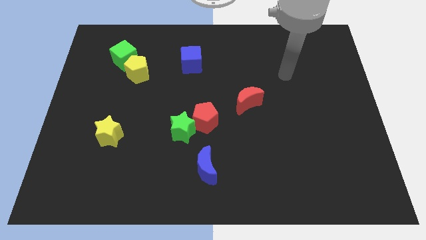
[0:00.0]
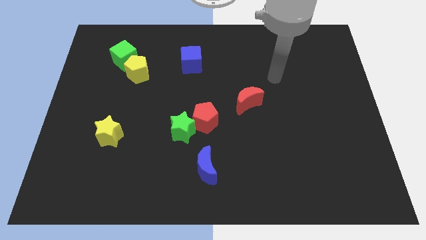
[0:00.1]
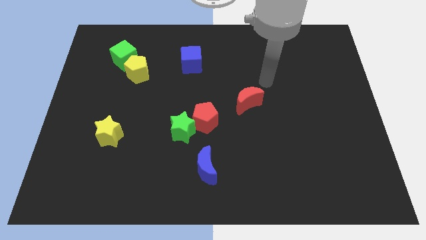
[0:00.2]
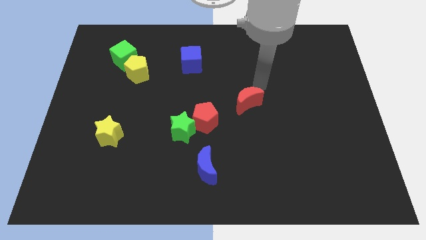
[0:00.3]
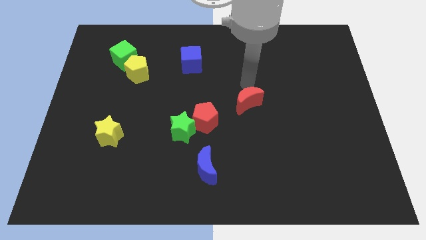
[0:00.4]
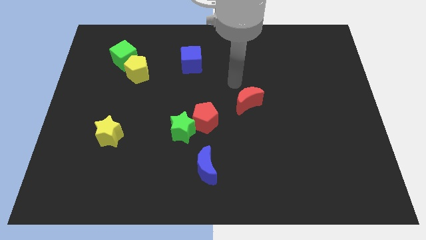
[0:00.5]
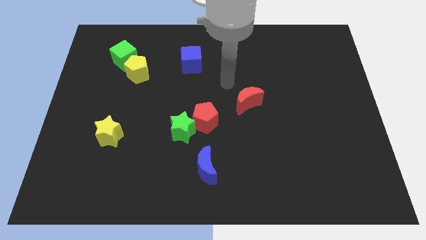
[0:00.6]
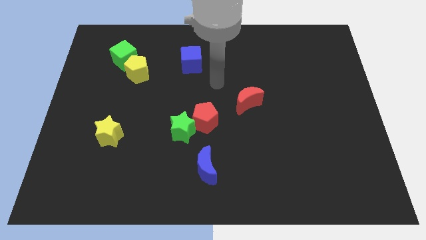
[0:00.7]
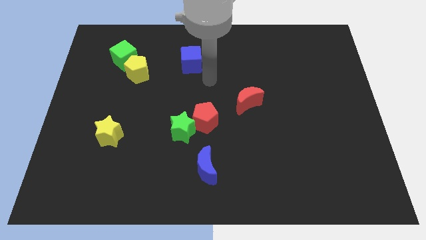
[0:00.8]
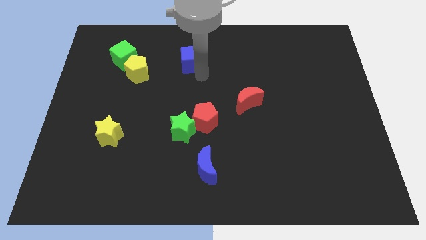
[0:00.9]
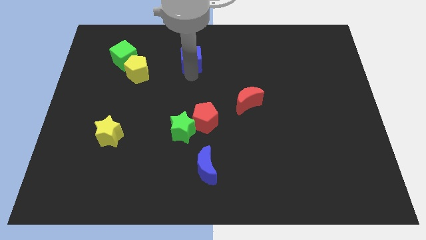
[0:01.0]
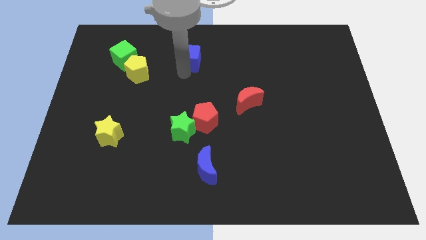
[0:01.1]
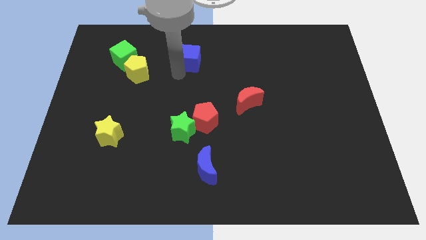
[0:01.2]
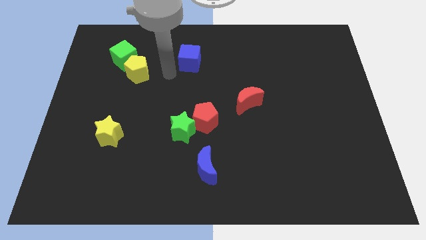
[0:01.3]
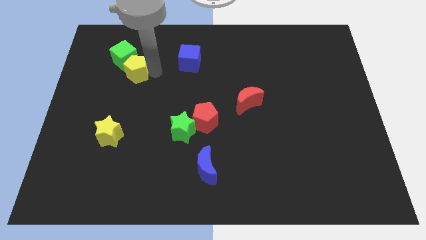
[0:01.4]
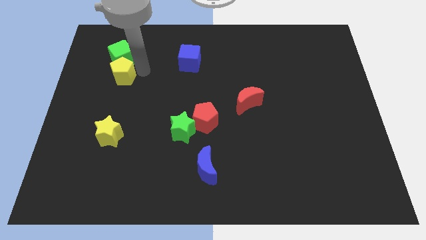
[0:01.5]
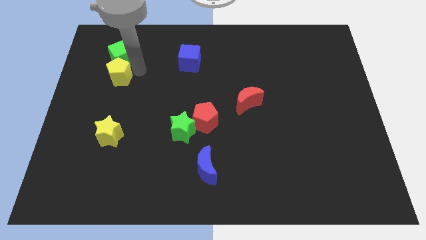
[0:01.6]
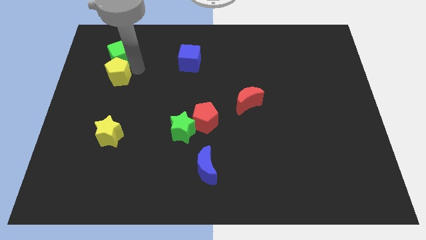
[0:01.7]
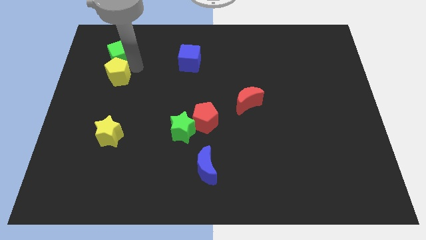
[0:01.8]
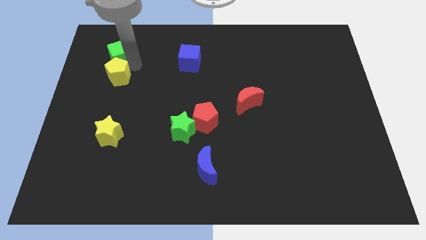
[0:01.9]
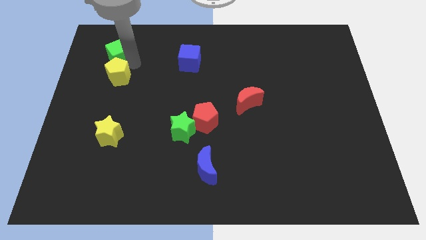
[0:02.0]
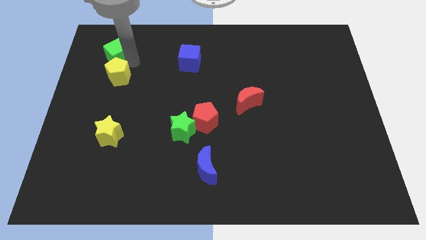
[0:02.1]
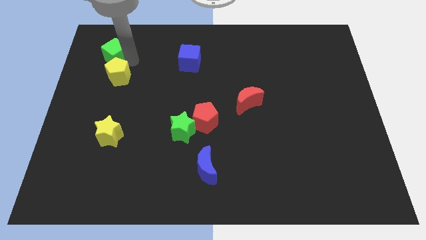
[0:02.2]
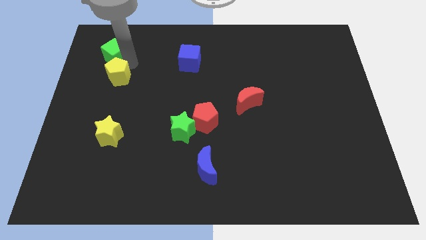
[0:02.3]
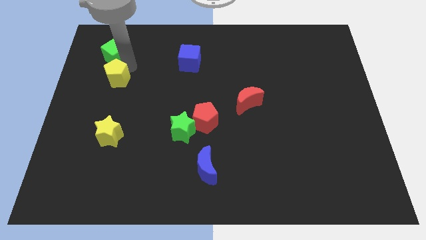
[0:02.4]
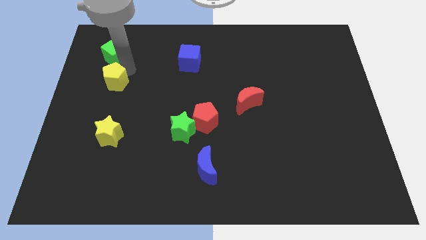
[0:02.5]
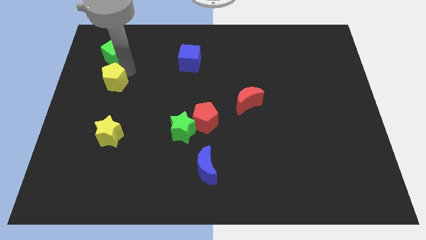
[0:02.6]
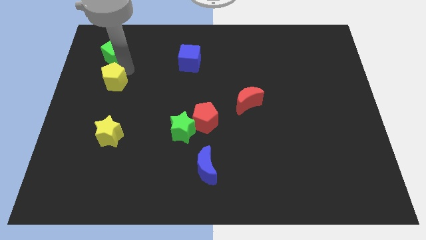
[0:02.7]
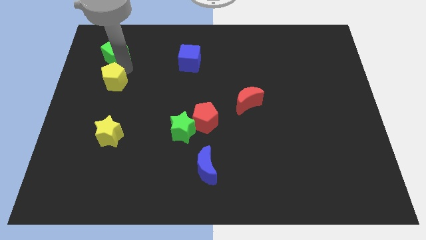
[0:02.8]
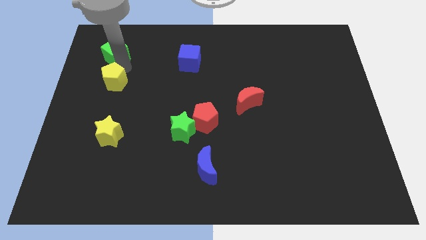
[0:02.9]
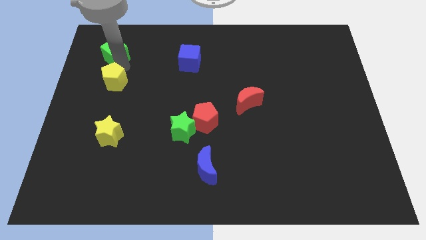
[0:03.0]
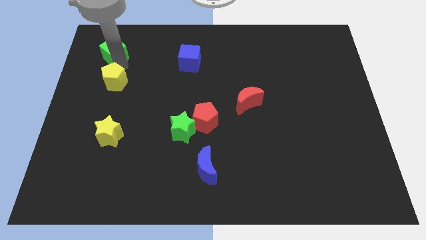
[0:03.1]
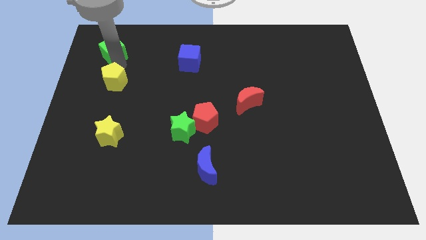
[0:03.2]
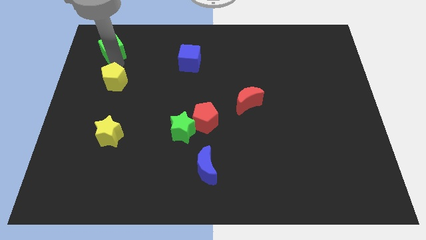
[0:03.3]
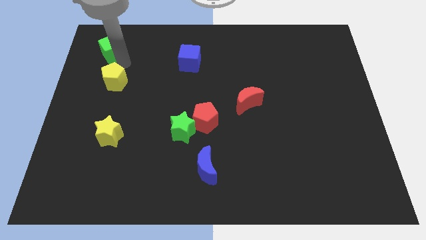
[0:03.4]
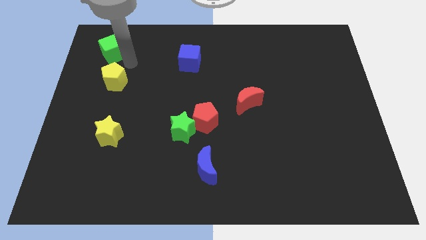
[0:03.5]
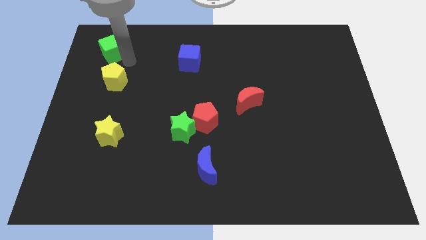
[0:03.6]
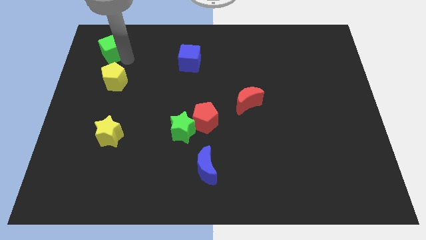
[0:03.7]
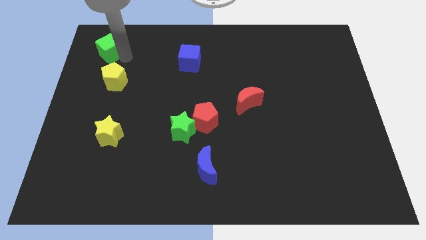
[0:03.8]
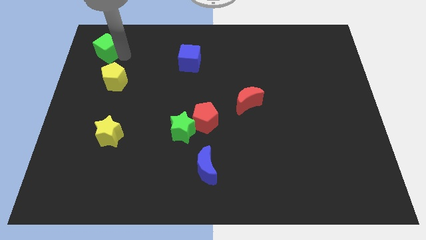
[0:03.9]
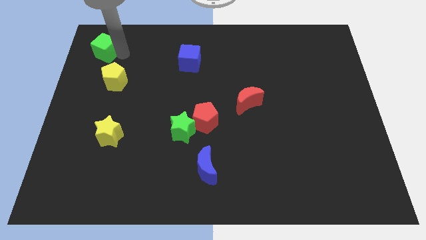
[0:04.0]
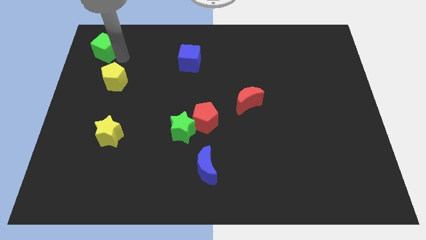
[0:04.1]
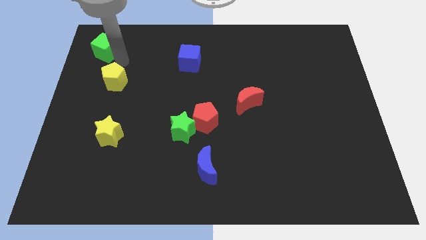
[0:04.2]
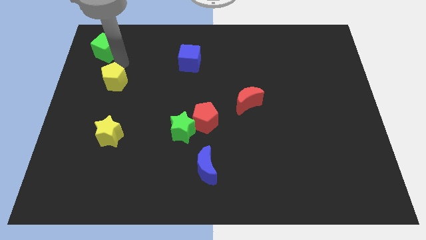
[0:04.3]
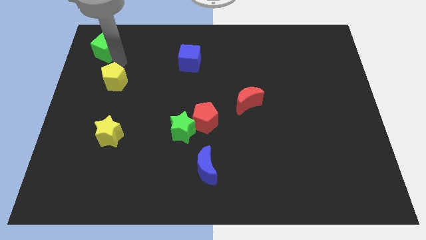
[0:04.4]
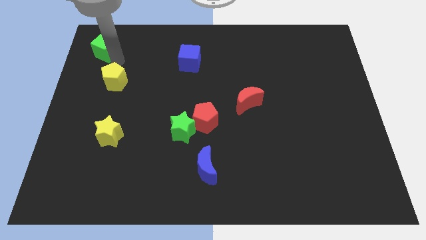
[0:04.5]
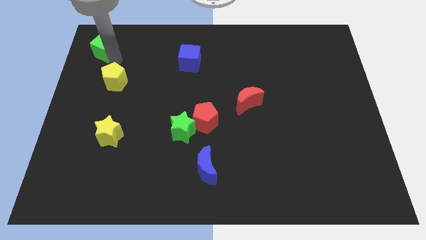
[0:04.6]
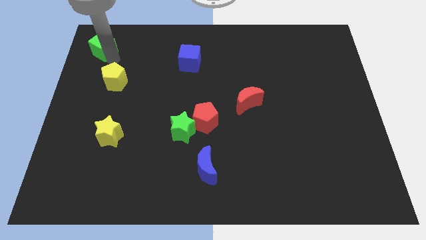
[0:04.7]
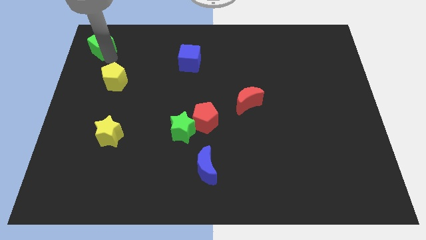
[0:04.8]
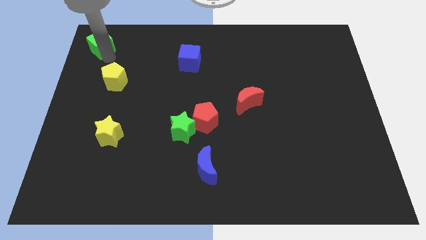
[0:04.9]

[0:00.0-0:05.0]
move the green cube to the upper left corner

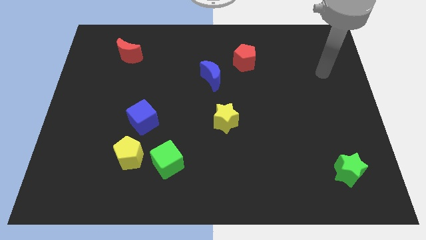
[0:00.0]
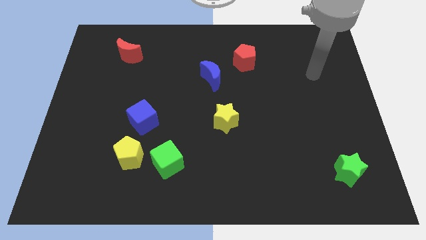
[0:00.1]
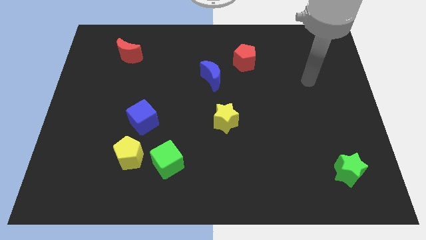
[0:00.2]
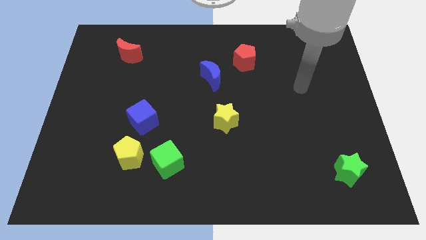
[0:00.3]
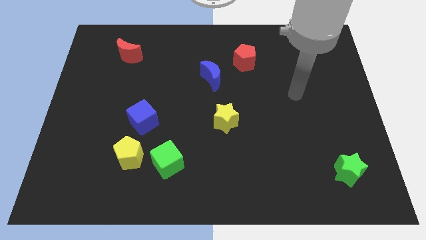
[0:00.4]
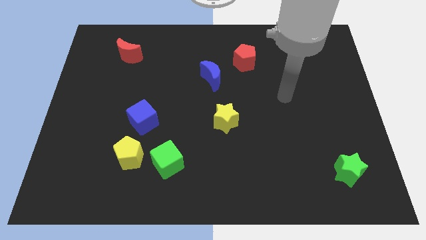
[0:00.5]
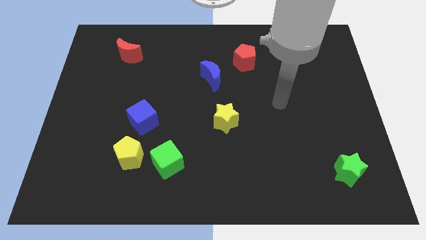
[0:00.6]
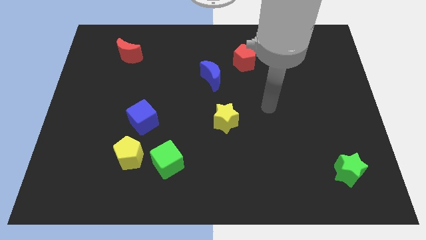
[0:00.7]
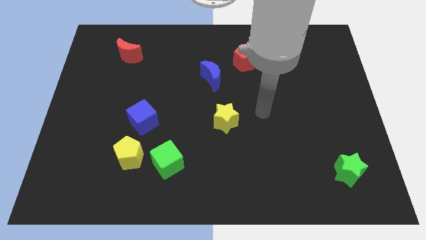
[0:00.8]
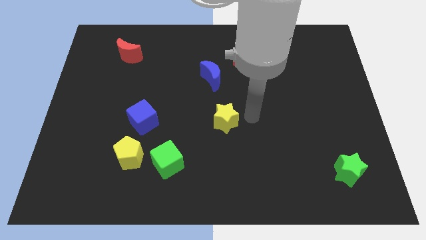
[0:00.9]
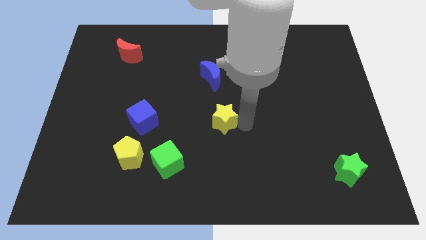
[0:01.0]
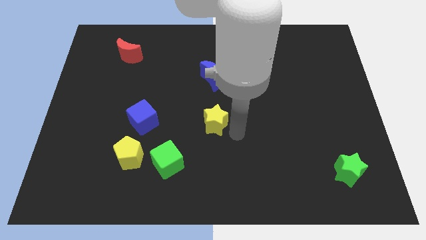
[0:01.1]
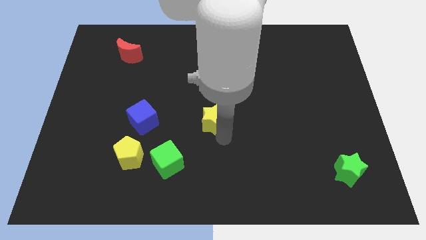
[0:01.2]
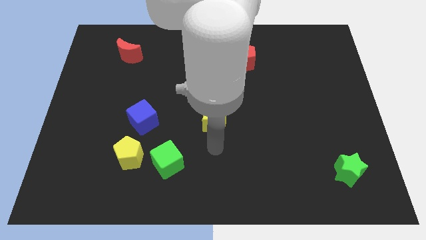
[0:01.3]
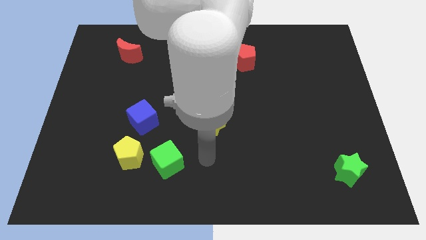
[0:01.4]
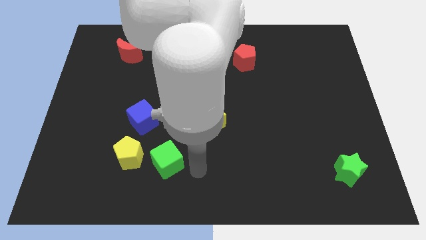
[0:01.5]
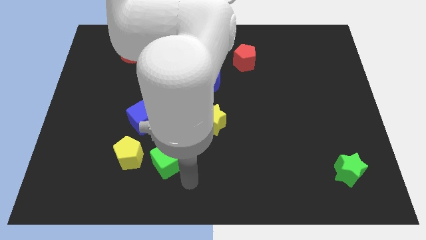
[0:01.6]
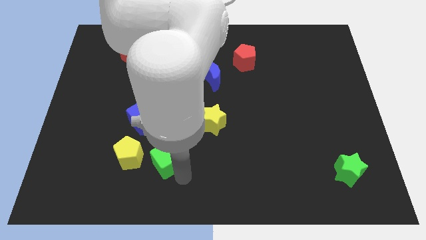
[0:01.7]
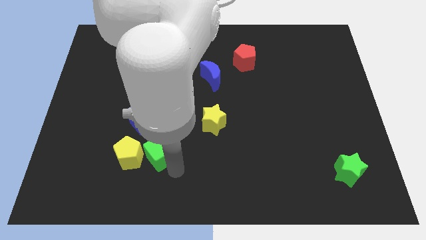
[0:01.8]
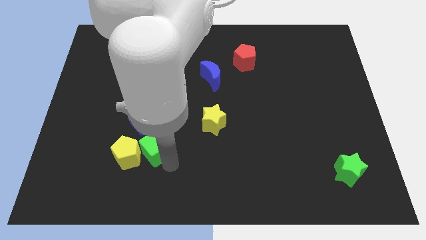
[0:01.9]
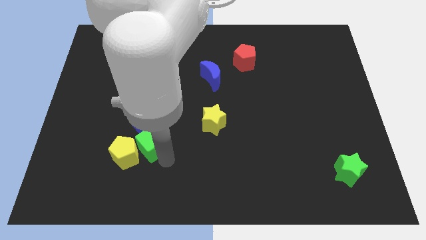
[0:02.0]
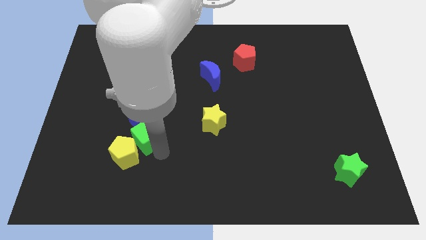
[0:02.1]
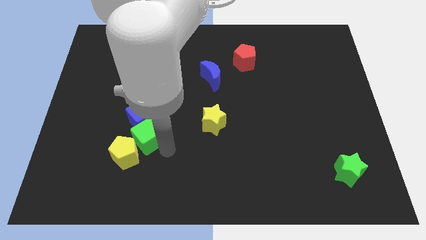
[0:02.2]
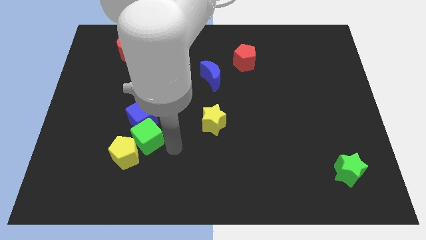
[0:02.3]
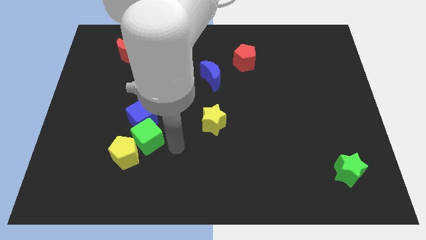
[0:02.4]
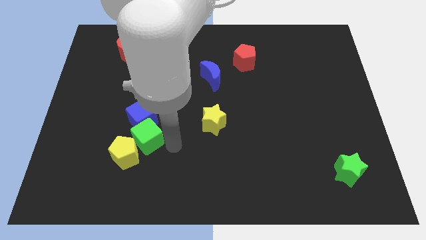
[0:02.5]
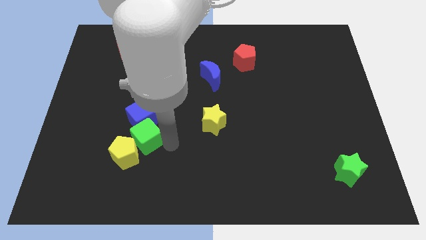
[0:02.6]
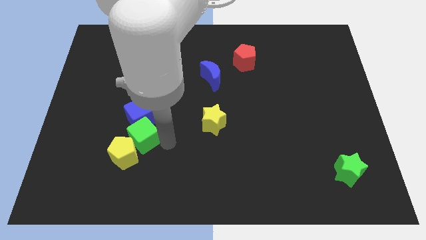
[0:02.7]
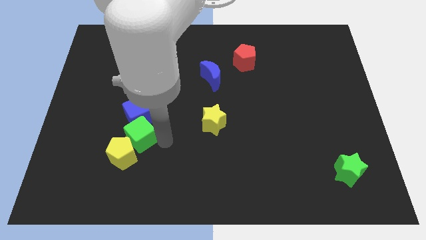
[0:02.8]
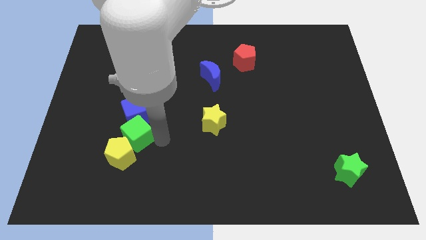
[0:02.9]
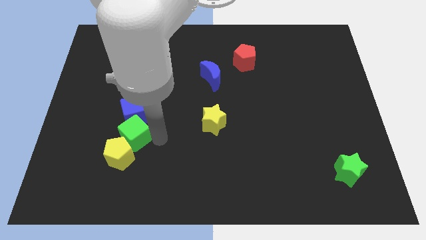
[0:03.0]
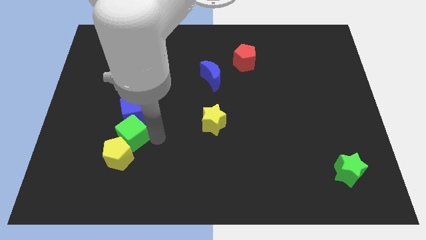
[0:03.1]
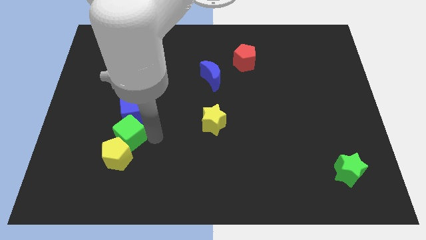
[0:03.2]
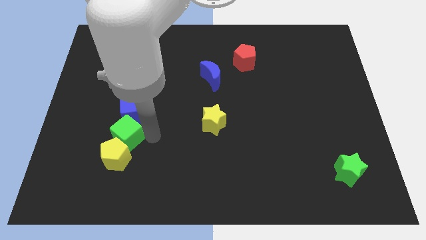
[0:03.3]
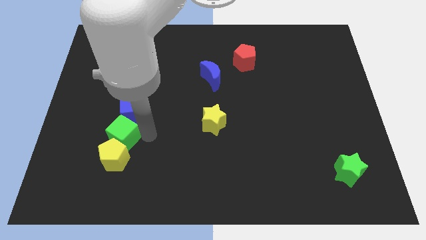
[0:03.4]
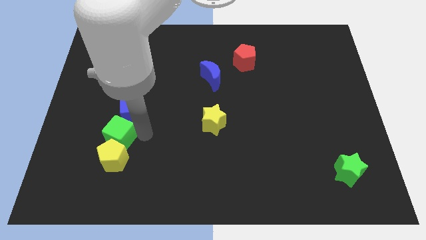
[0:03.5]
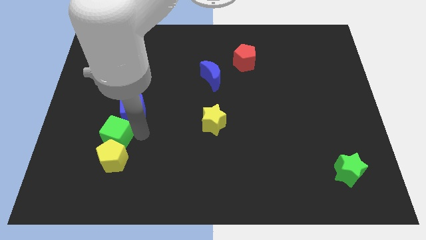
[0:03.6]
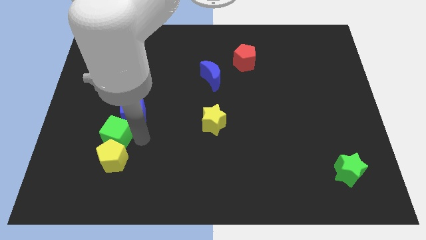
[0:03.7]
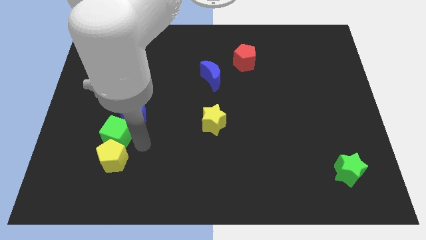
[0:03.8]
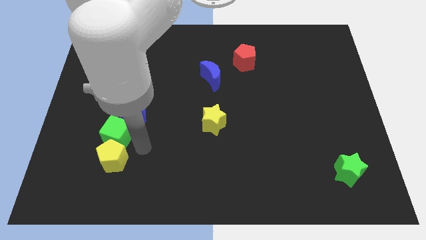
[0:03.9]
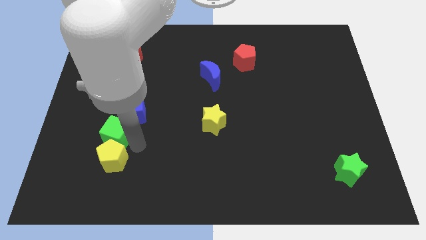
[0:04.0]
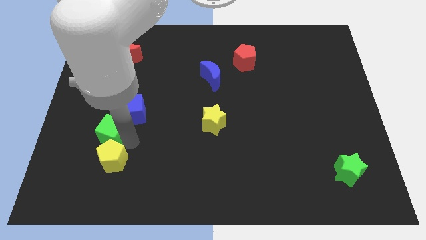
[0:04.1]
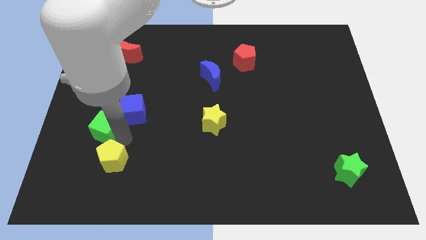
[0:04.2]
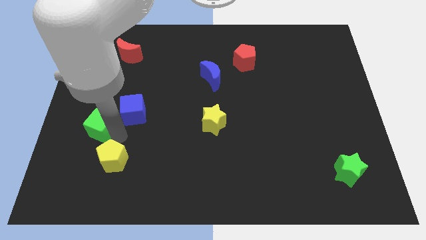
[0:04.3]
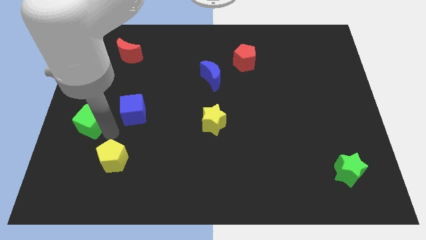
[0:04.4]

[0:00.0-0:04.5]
slide the green cube to the left side
